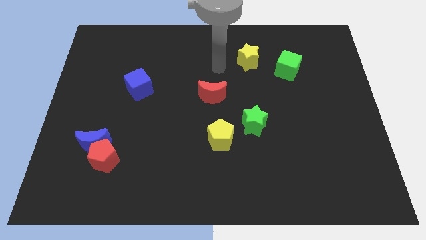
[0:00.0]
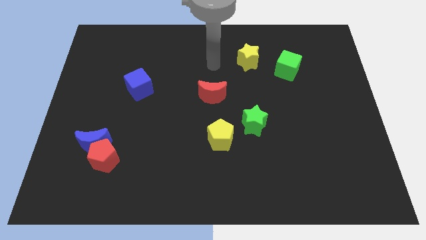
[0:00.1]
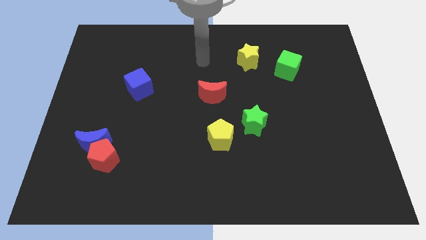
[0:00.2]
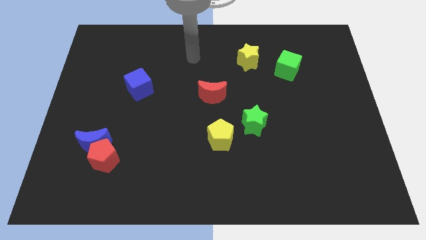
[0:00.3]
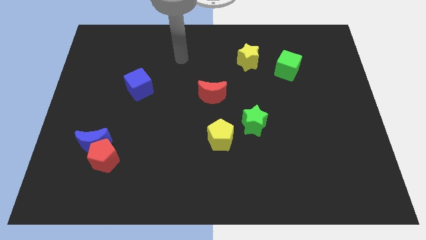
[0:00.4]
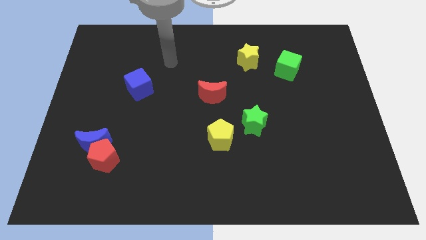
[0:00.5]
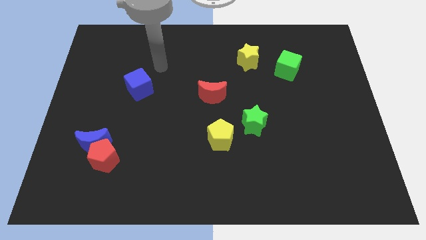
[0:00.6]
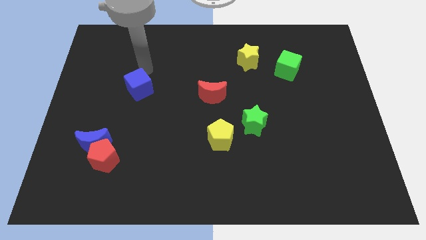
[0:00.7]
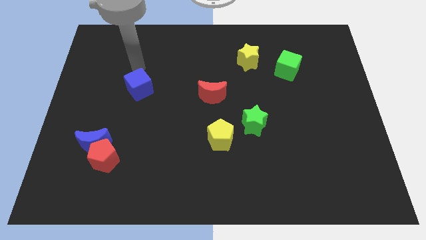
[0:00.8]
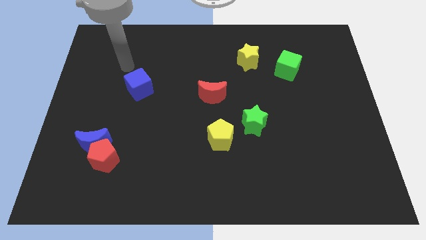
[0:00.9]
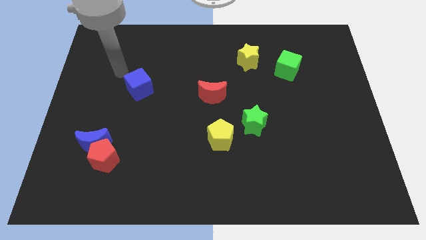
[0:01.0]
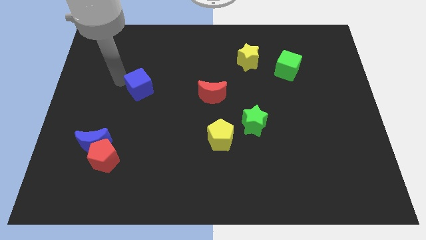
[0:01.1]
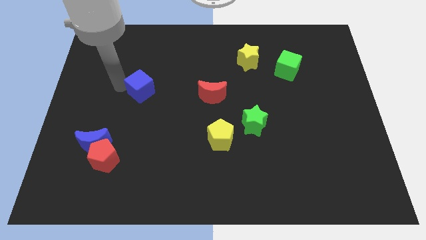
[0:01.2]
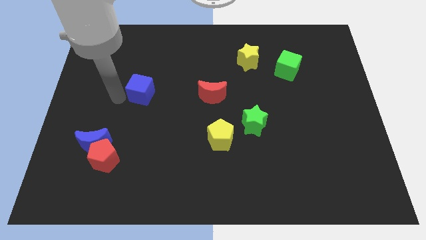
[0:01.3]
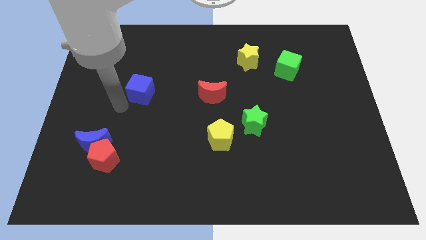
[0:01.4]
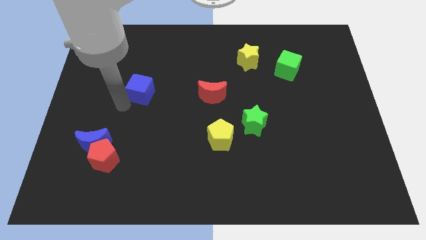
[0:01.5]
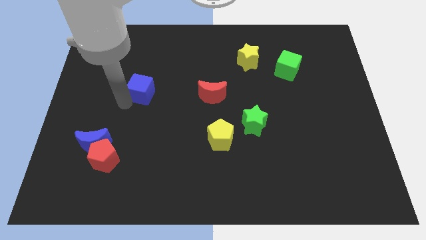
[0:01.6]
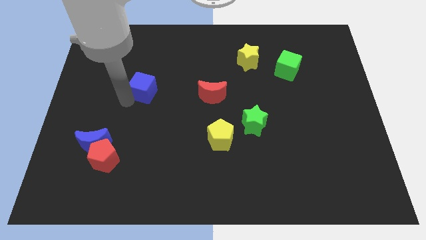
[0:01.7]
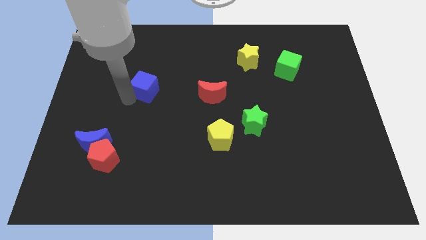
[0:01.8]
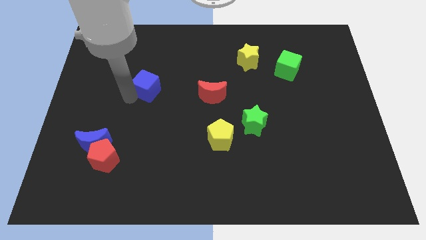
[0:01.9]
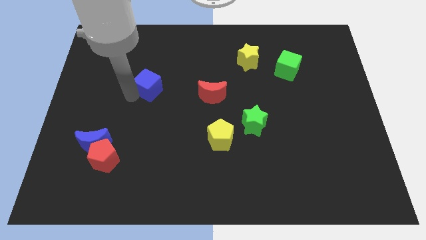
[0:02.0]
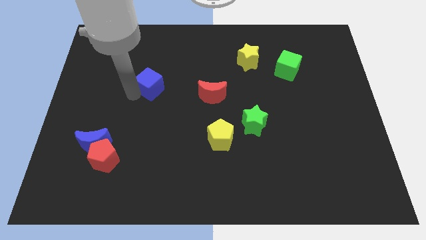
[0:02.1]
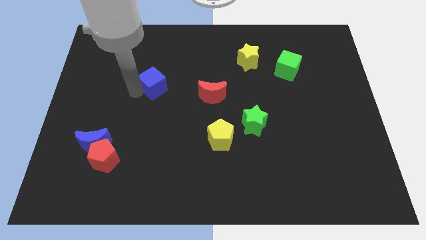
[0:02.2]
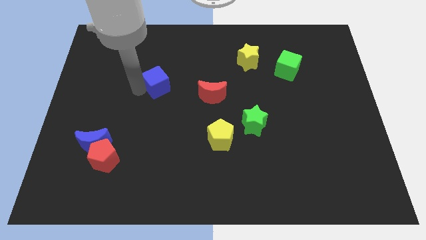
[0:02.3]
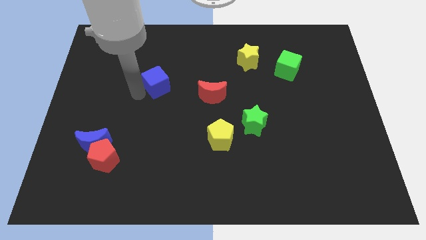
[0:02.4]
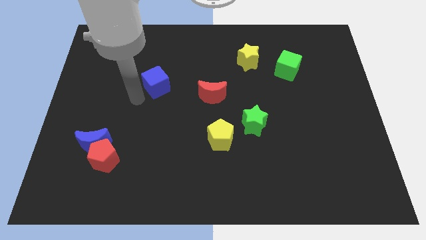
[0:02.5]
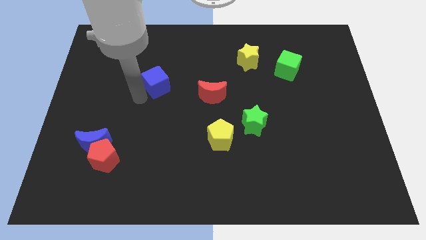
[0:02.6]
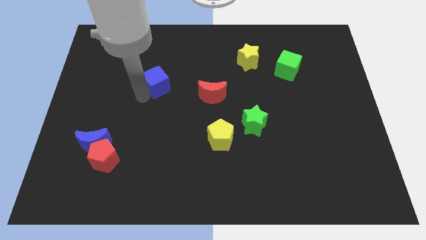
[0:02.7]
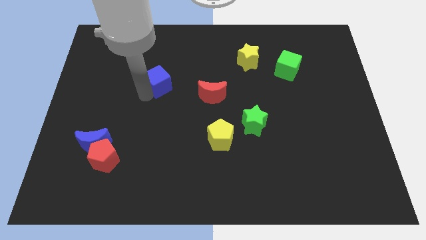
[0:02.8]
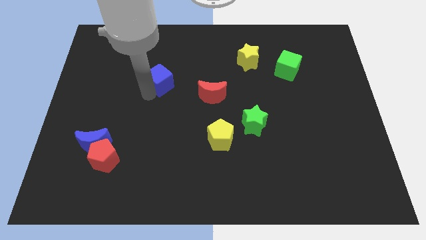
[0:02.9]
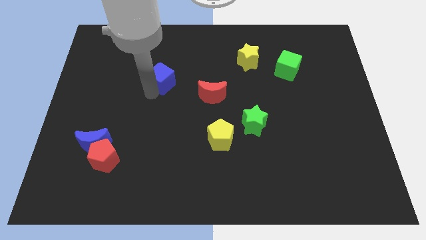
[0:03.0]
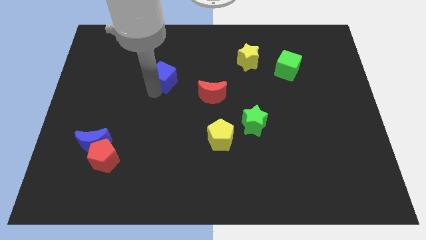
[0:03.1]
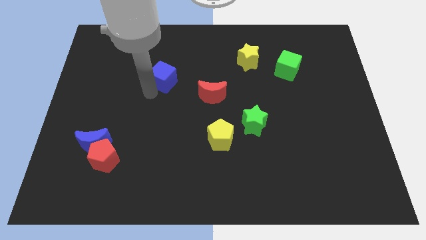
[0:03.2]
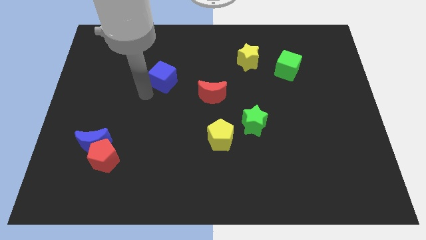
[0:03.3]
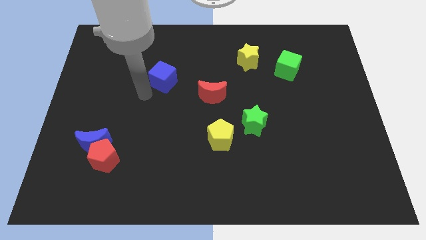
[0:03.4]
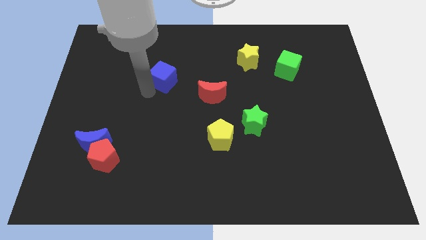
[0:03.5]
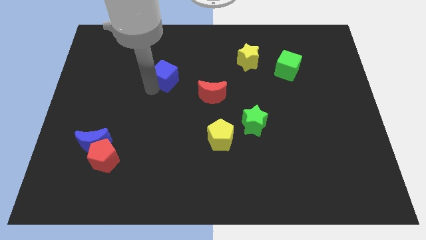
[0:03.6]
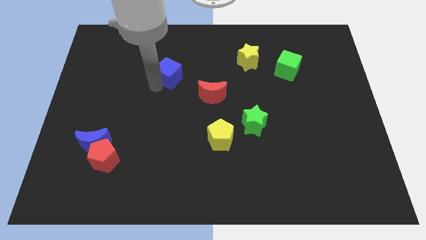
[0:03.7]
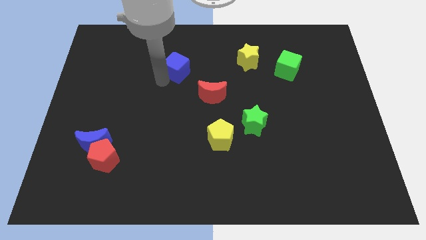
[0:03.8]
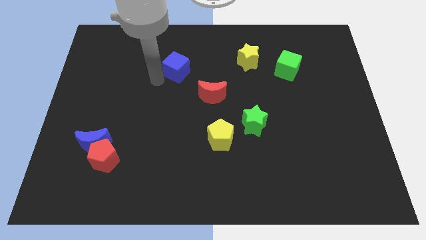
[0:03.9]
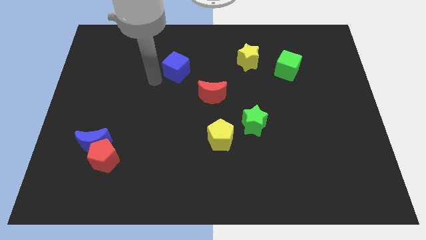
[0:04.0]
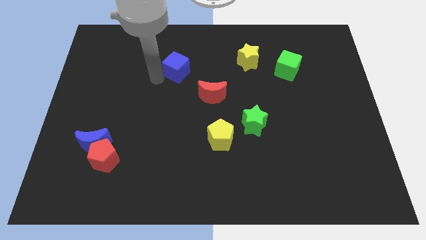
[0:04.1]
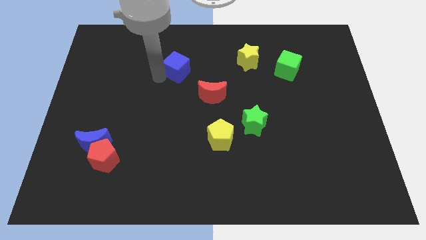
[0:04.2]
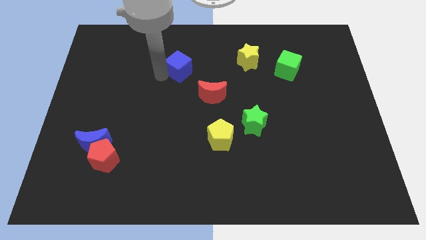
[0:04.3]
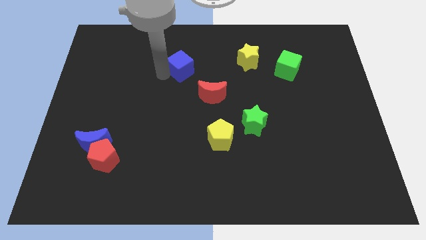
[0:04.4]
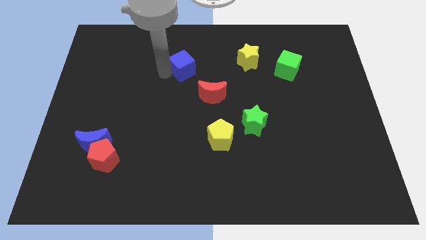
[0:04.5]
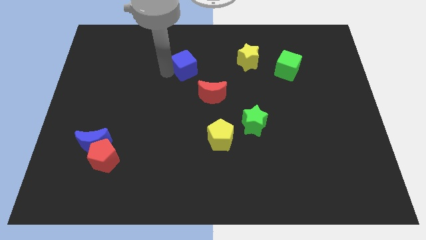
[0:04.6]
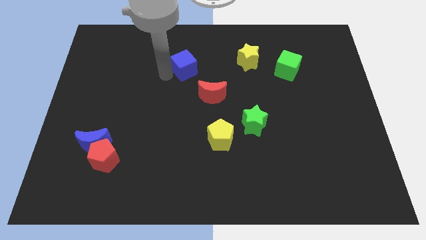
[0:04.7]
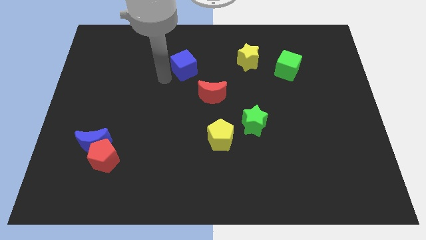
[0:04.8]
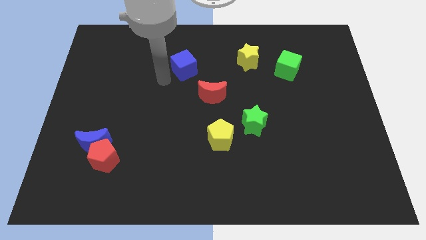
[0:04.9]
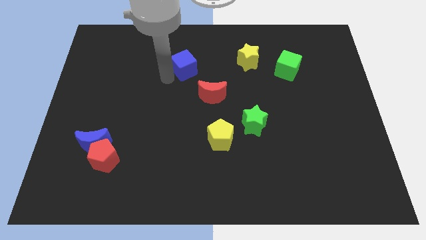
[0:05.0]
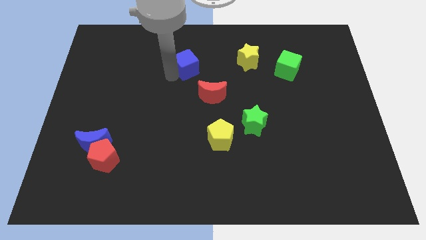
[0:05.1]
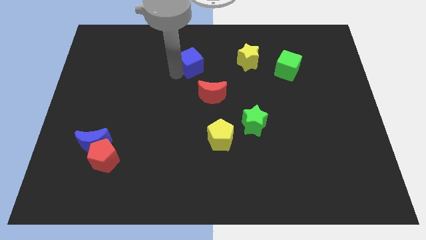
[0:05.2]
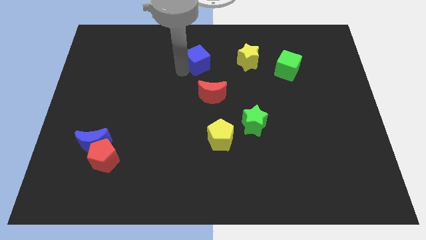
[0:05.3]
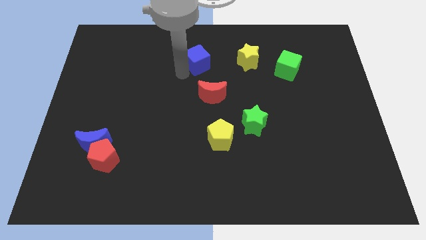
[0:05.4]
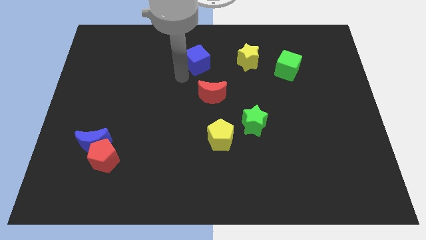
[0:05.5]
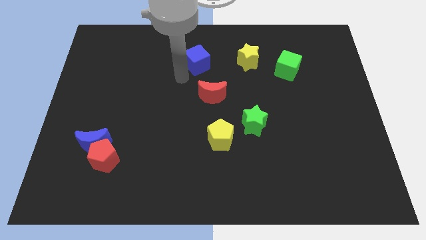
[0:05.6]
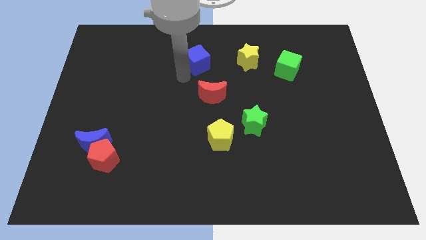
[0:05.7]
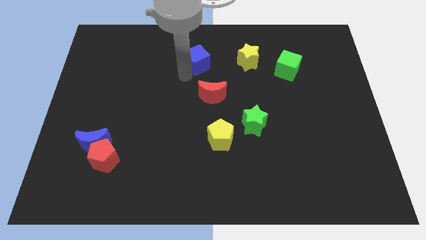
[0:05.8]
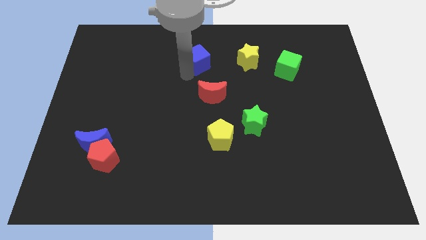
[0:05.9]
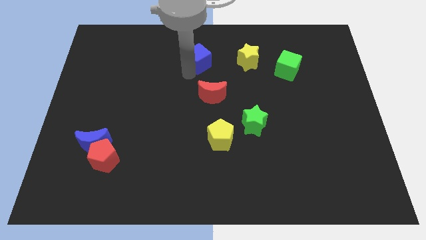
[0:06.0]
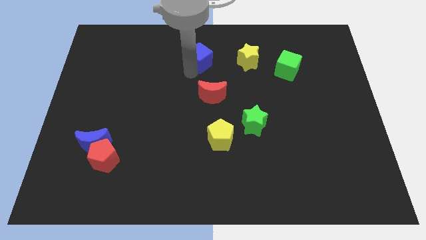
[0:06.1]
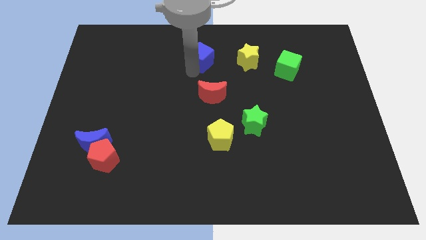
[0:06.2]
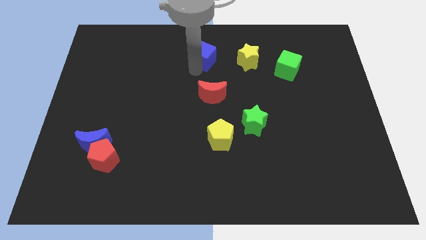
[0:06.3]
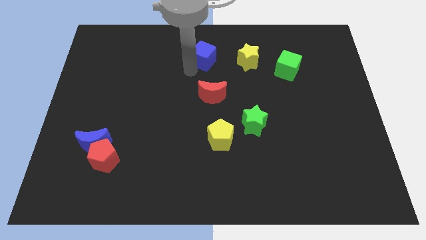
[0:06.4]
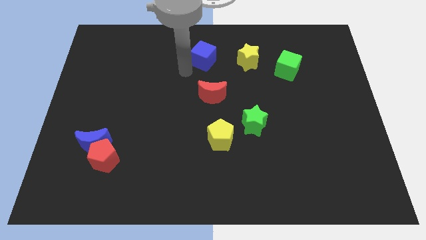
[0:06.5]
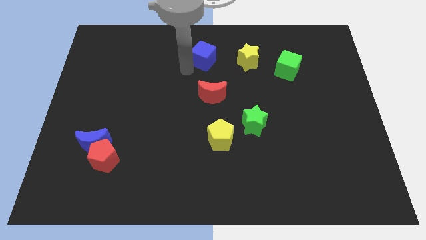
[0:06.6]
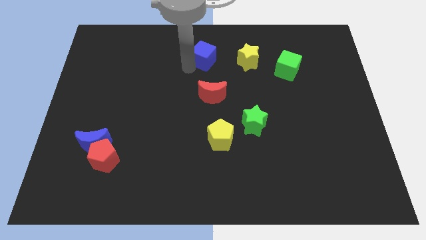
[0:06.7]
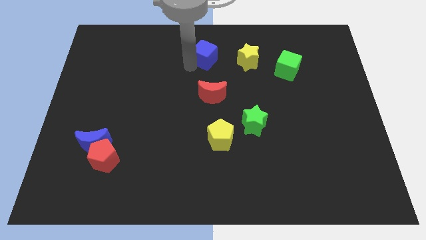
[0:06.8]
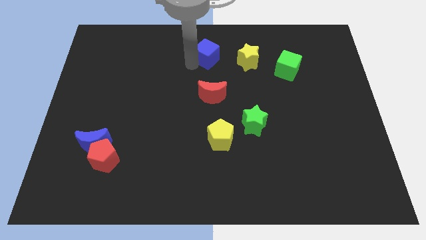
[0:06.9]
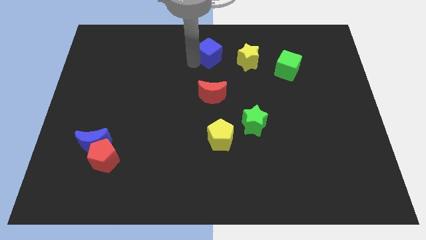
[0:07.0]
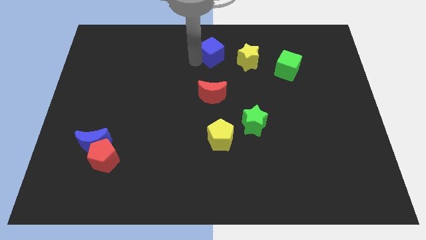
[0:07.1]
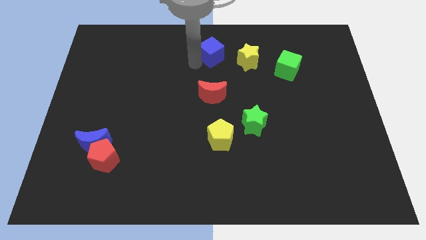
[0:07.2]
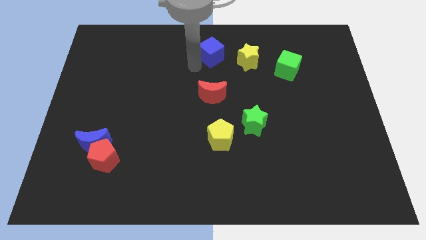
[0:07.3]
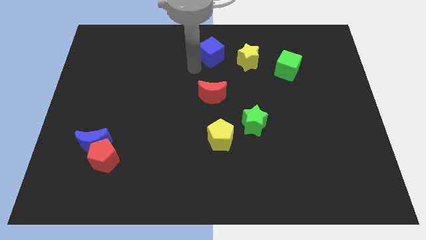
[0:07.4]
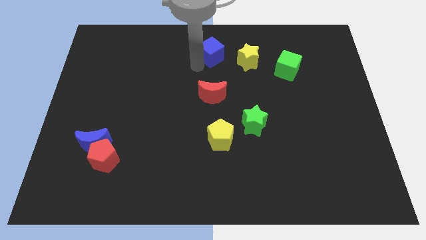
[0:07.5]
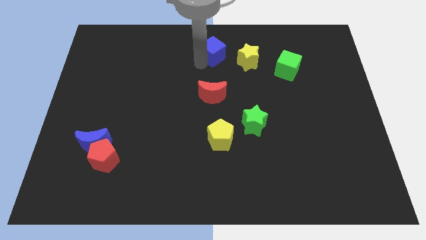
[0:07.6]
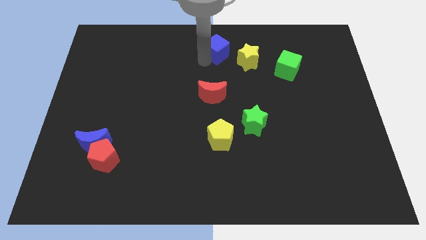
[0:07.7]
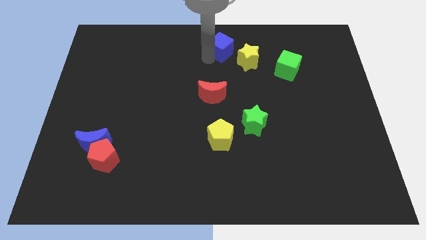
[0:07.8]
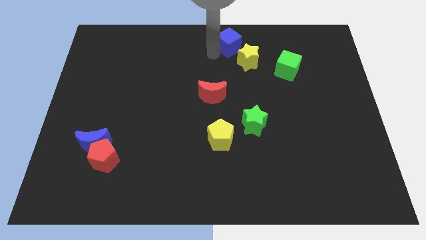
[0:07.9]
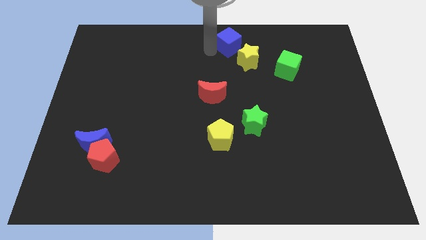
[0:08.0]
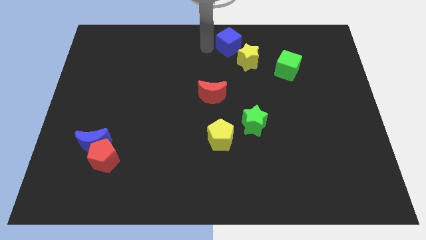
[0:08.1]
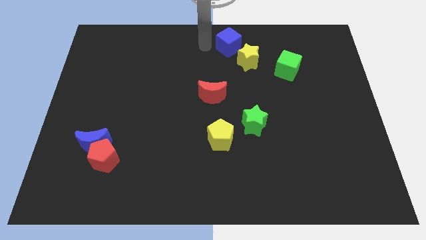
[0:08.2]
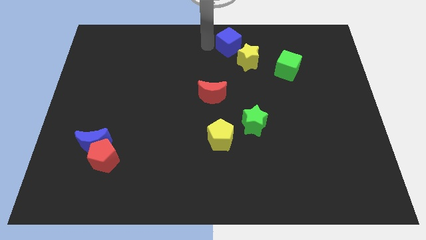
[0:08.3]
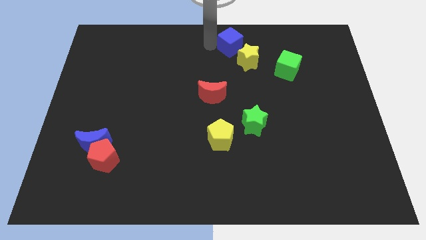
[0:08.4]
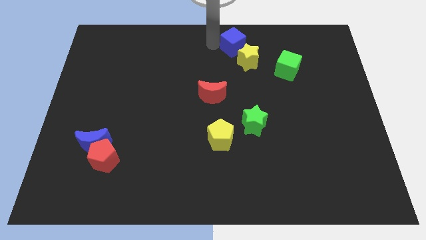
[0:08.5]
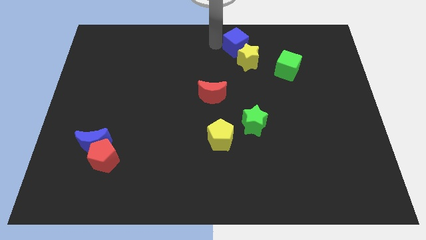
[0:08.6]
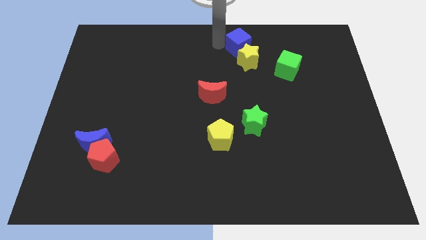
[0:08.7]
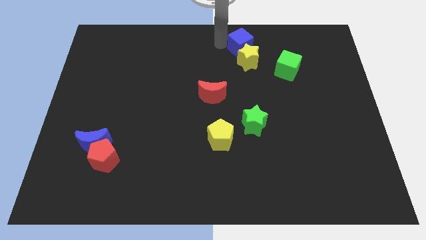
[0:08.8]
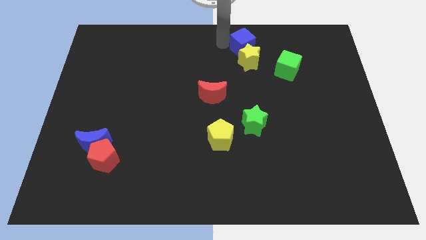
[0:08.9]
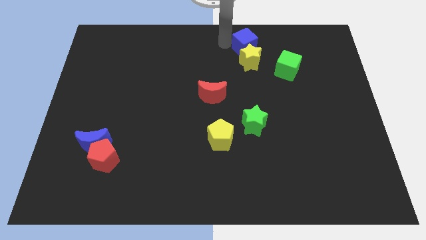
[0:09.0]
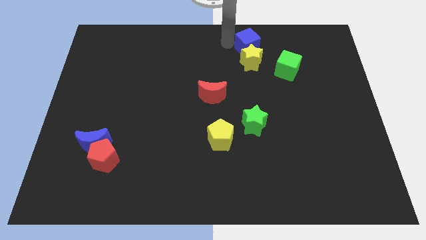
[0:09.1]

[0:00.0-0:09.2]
put the blue cube to the top left side of the green cube
